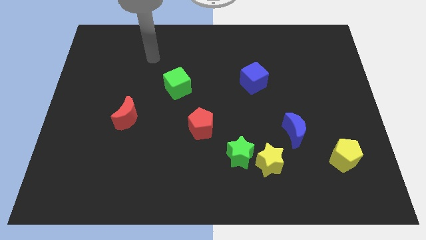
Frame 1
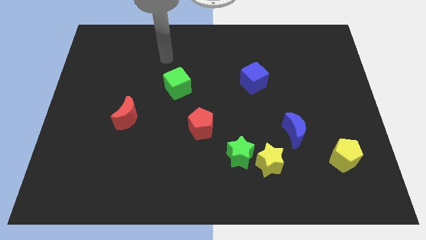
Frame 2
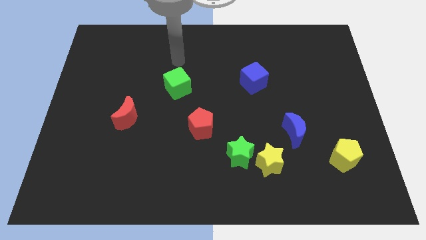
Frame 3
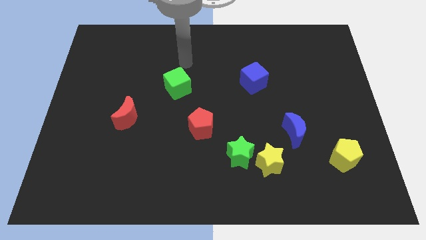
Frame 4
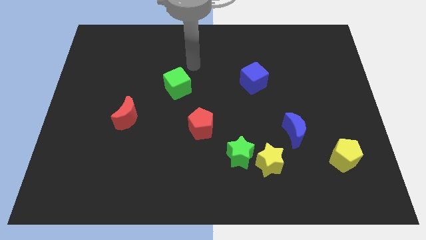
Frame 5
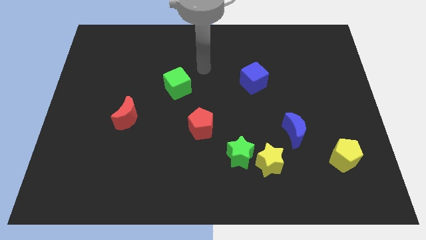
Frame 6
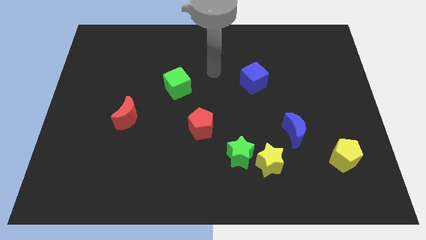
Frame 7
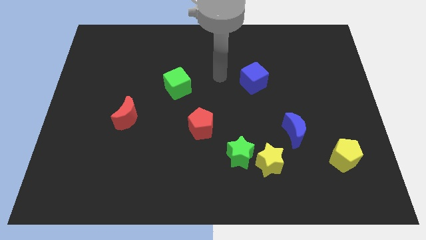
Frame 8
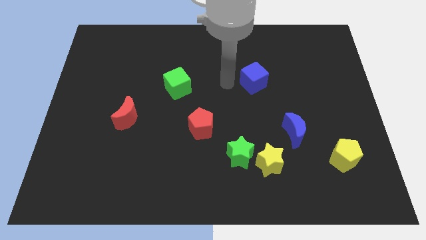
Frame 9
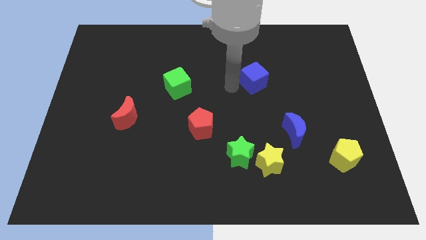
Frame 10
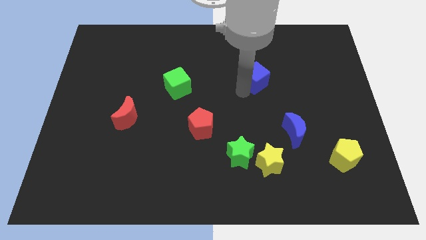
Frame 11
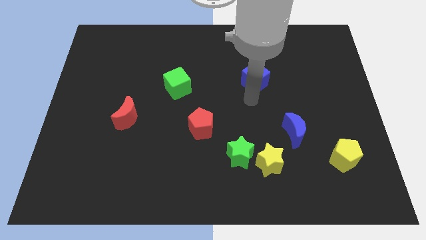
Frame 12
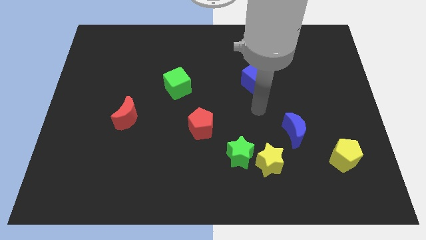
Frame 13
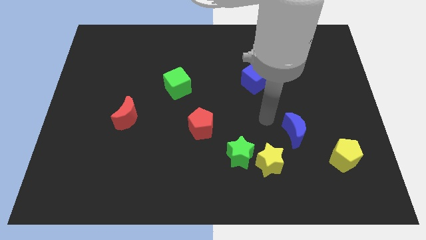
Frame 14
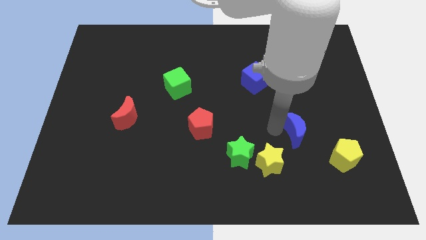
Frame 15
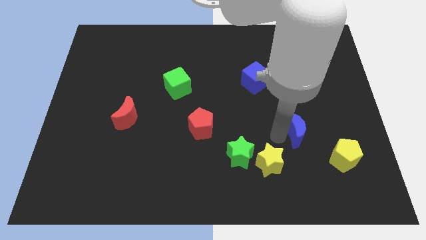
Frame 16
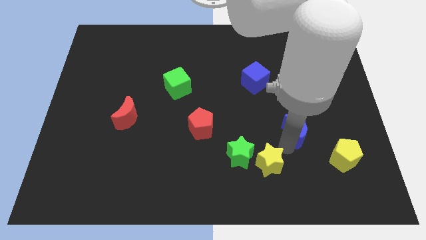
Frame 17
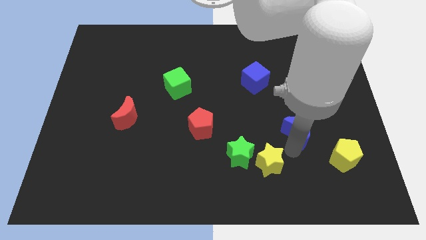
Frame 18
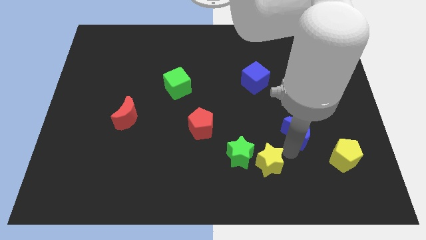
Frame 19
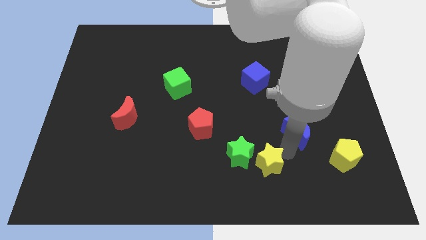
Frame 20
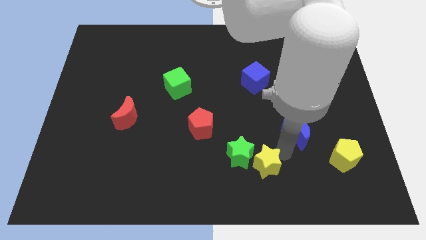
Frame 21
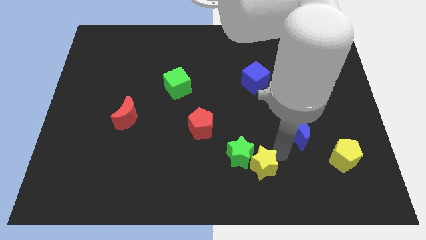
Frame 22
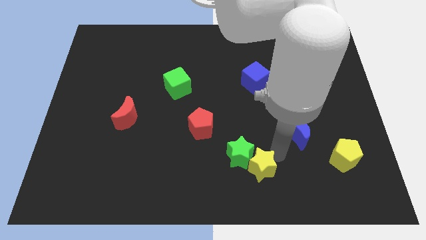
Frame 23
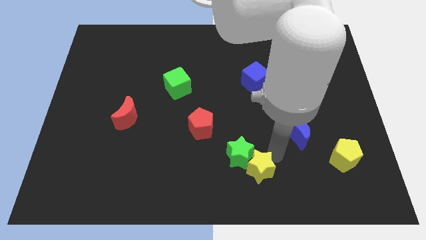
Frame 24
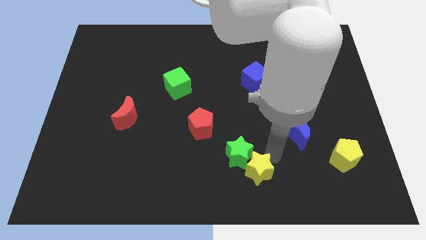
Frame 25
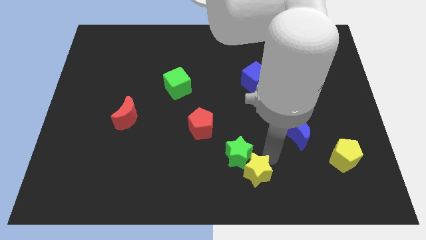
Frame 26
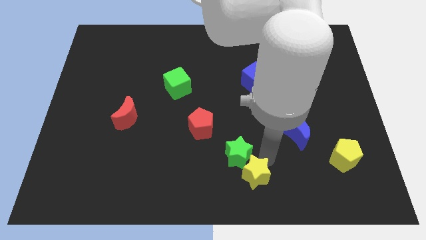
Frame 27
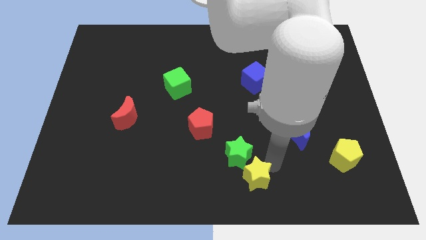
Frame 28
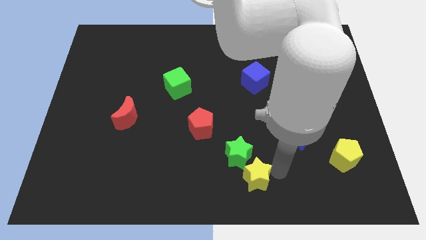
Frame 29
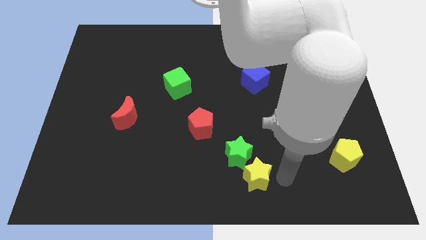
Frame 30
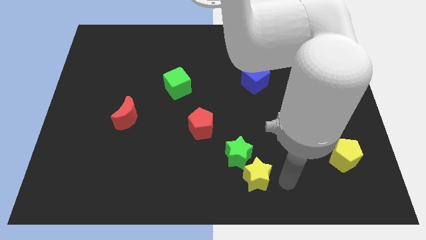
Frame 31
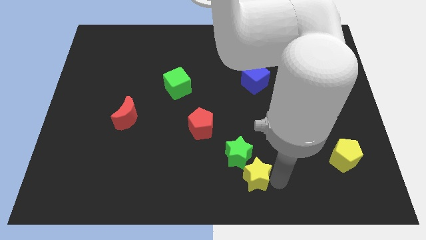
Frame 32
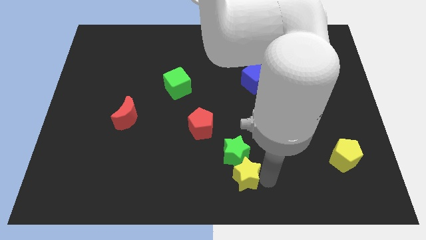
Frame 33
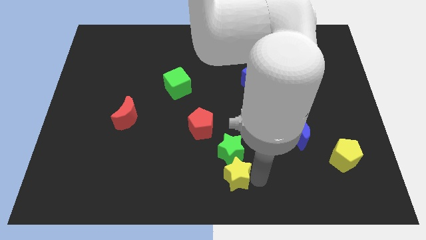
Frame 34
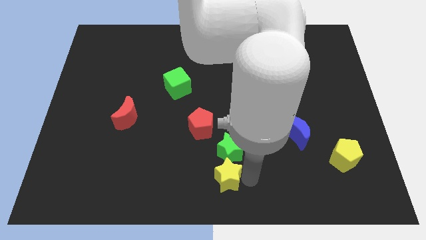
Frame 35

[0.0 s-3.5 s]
move the yellow star slightly left

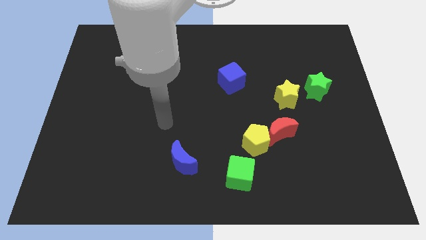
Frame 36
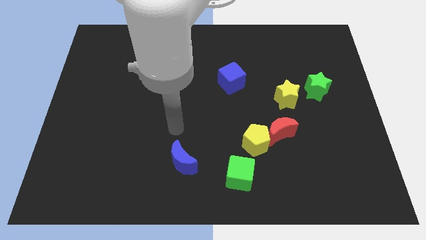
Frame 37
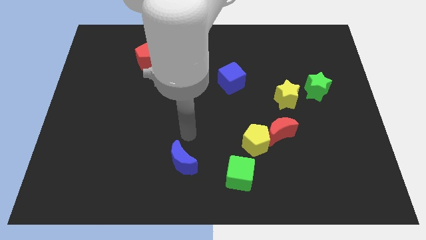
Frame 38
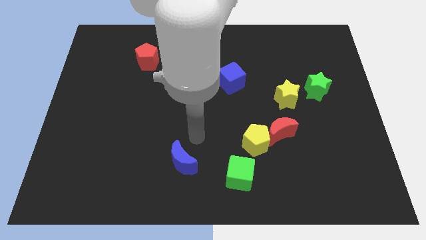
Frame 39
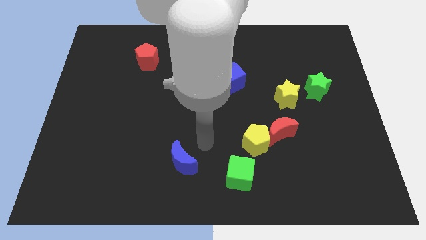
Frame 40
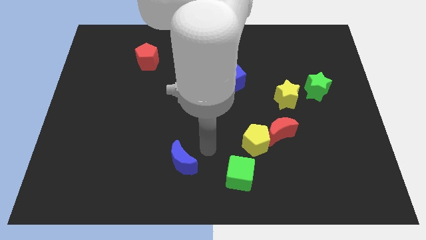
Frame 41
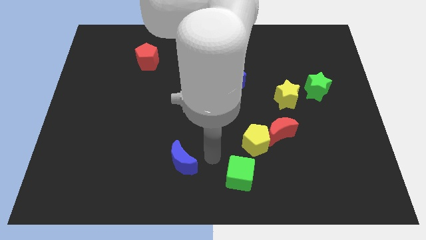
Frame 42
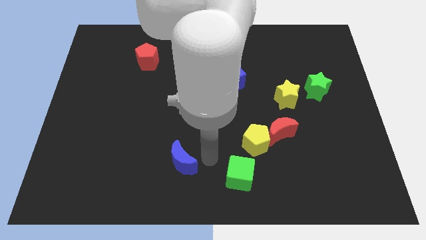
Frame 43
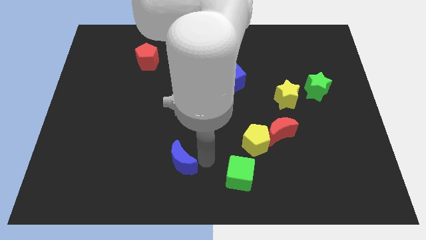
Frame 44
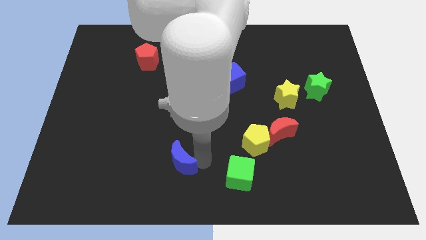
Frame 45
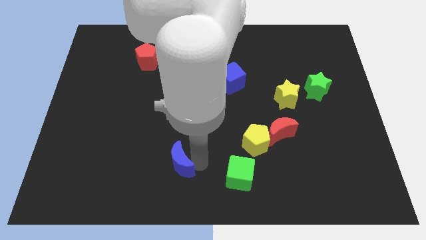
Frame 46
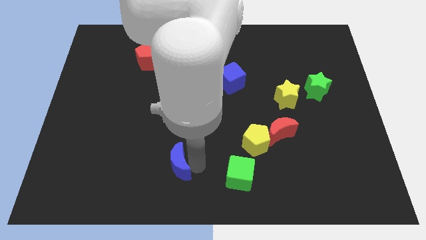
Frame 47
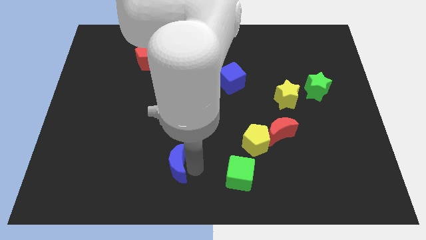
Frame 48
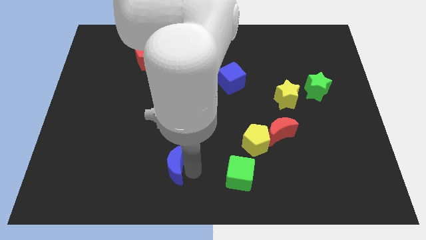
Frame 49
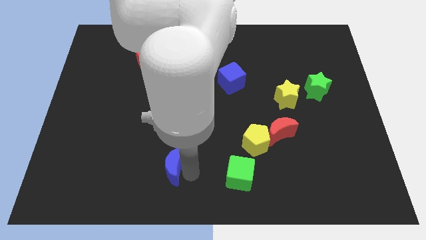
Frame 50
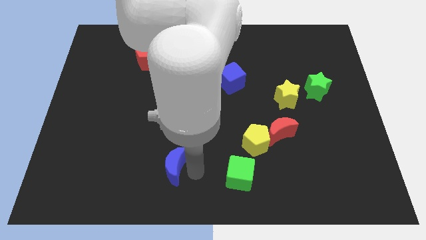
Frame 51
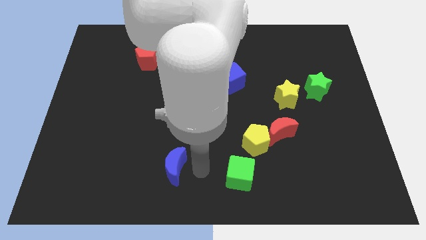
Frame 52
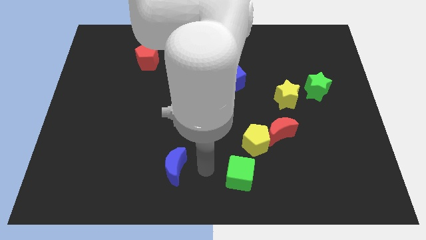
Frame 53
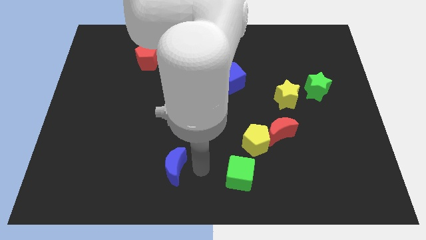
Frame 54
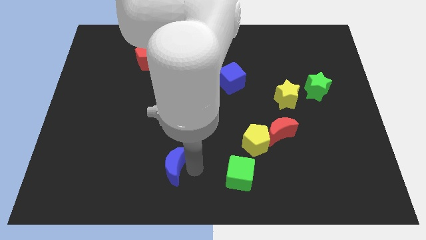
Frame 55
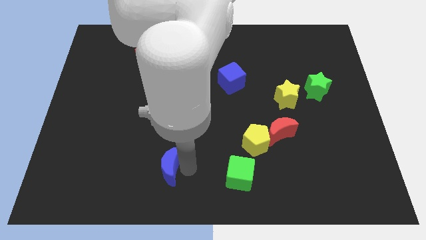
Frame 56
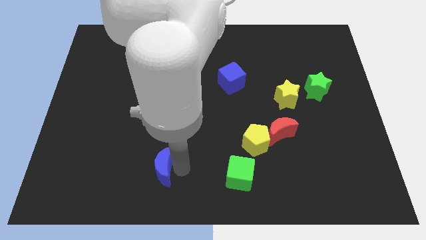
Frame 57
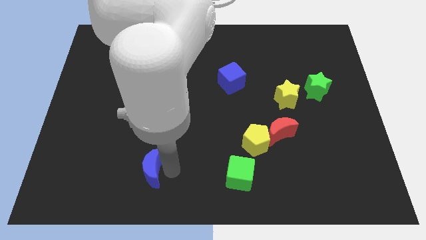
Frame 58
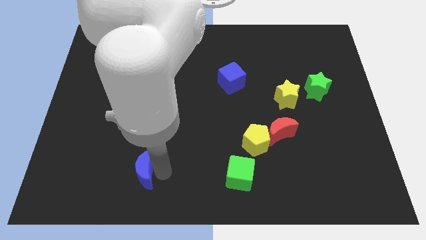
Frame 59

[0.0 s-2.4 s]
move the blue moon left somewhat

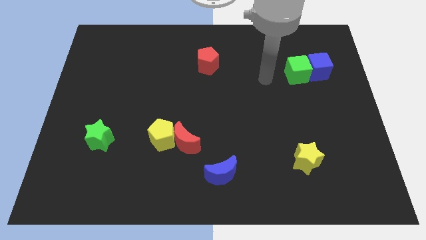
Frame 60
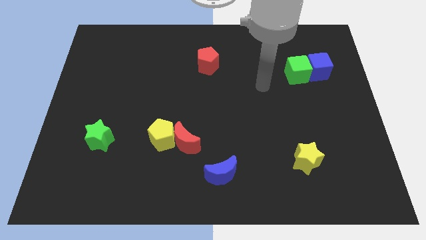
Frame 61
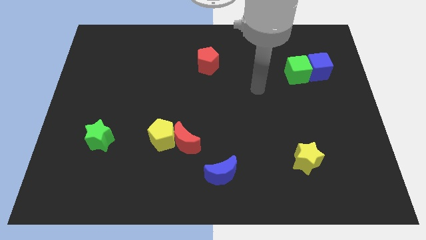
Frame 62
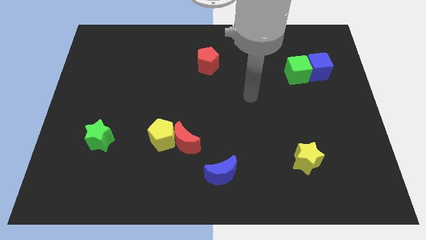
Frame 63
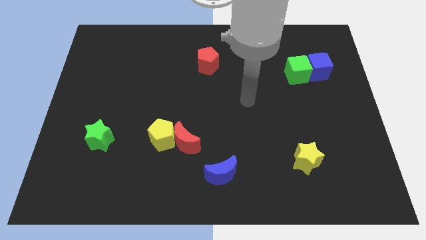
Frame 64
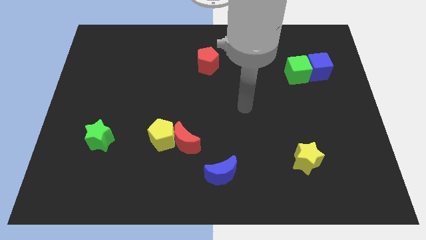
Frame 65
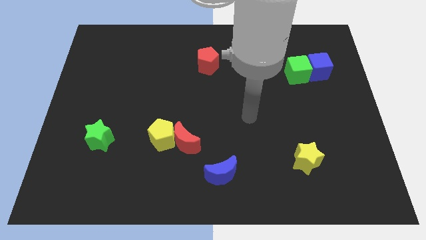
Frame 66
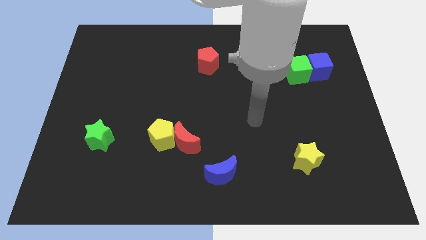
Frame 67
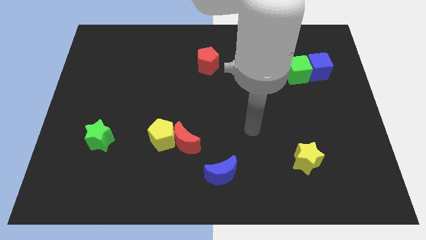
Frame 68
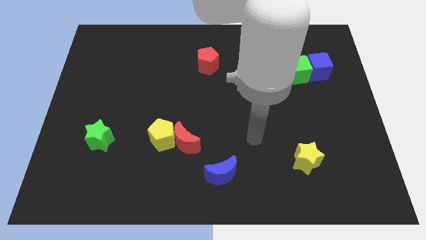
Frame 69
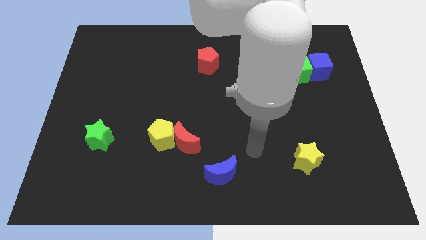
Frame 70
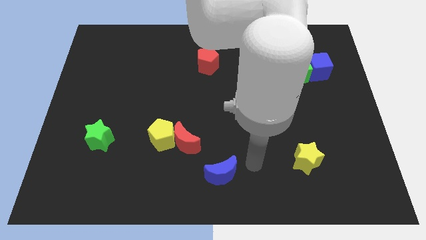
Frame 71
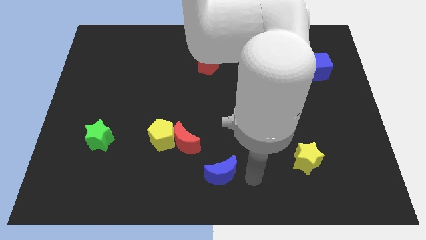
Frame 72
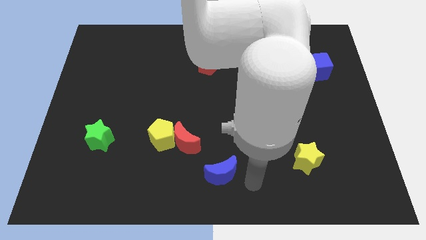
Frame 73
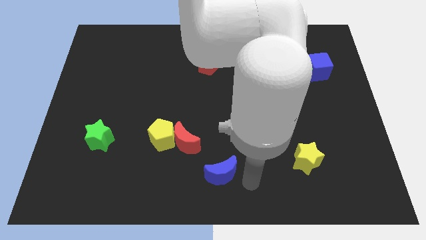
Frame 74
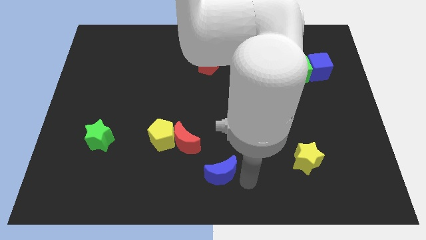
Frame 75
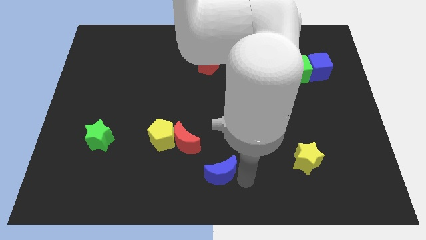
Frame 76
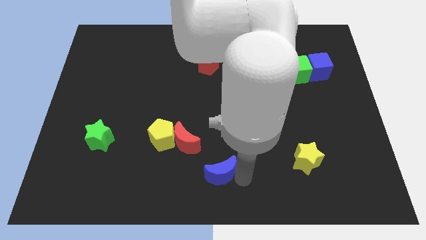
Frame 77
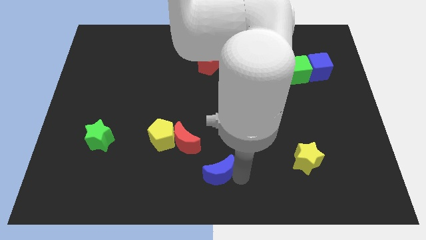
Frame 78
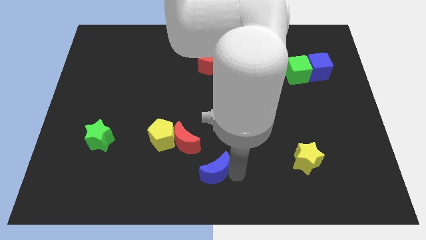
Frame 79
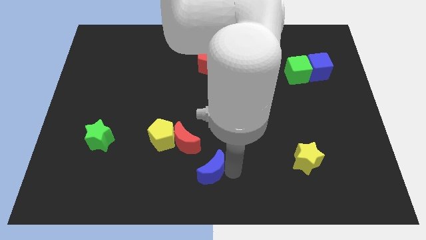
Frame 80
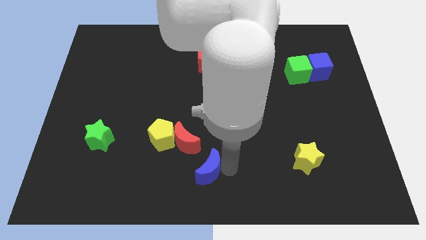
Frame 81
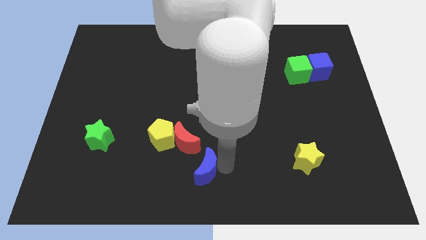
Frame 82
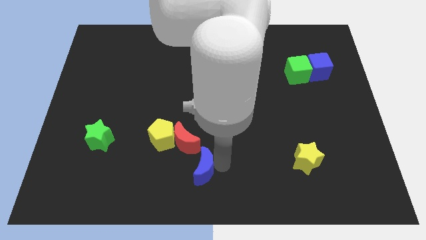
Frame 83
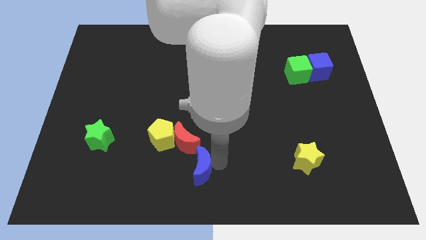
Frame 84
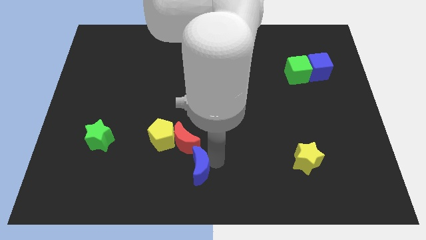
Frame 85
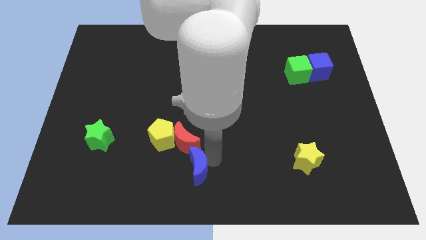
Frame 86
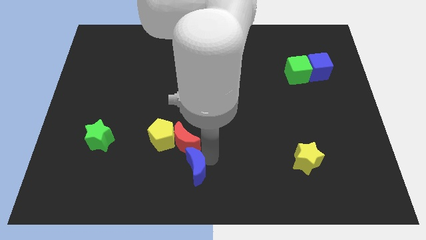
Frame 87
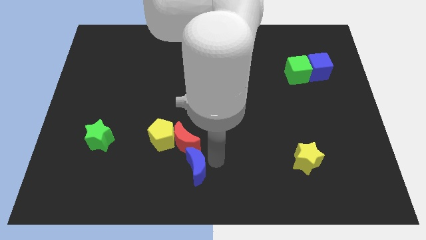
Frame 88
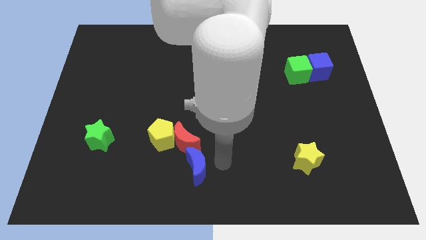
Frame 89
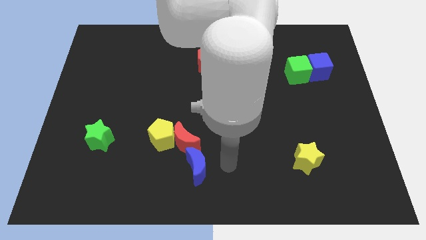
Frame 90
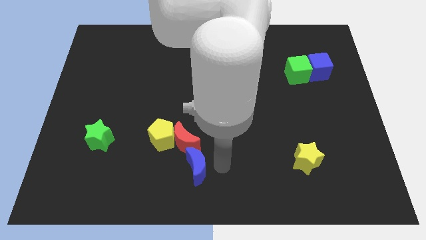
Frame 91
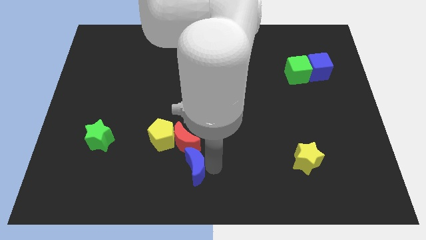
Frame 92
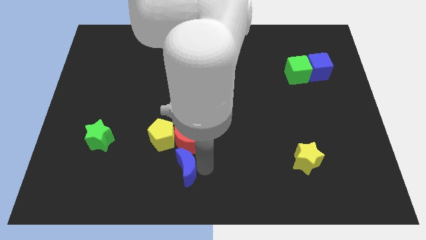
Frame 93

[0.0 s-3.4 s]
slightly push the blue moon left
